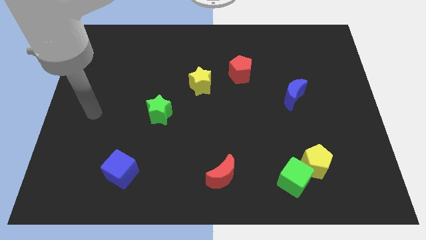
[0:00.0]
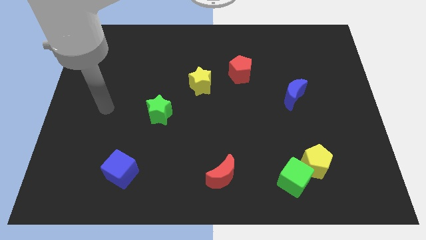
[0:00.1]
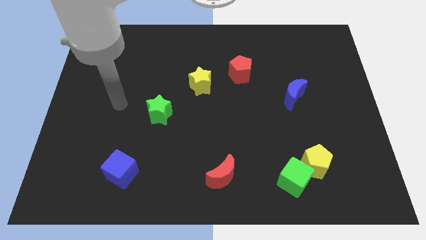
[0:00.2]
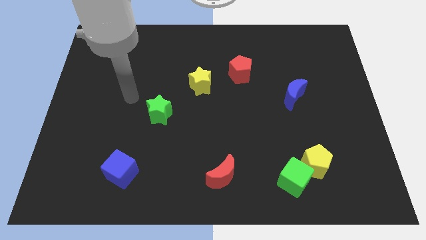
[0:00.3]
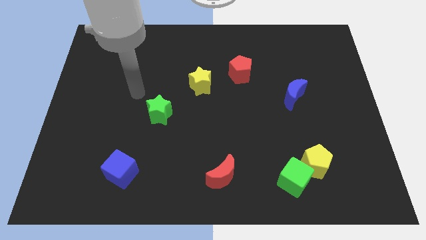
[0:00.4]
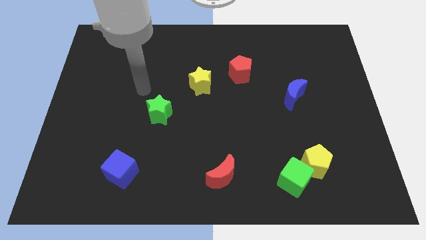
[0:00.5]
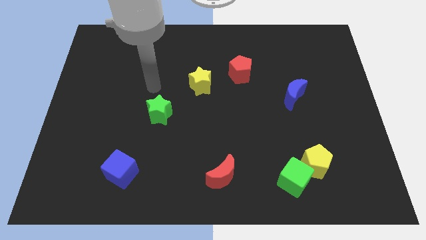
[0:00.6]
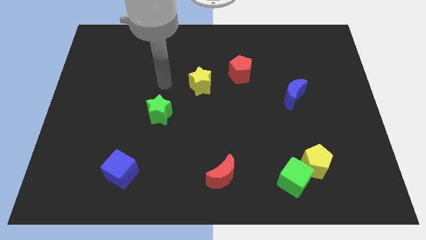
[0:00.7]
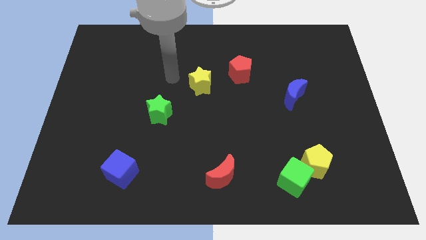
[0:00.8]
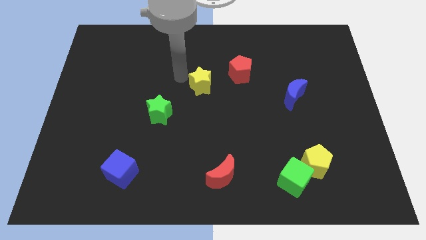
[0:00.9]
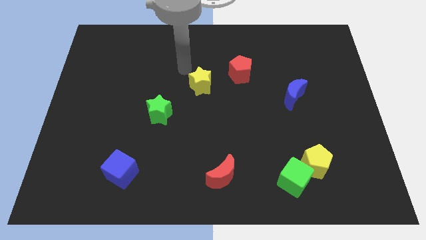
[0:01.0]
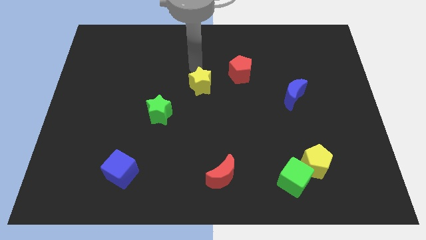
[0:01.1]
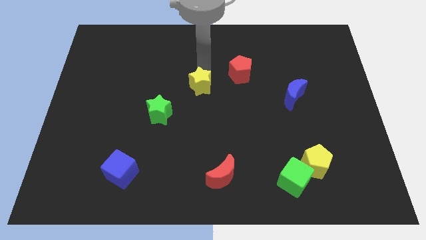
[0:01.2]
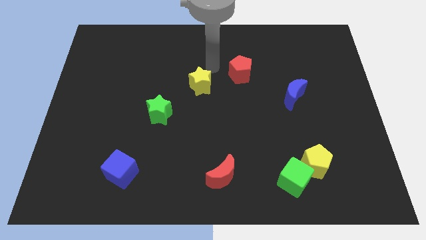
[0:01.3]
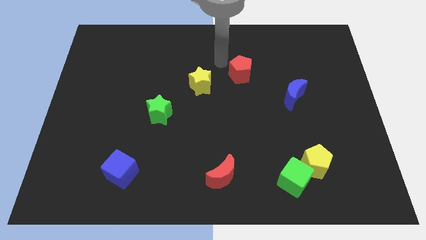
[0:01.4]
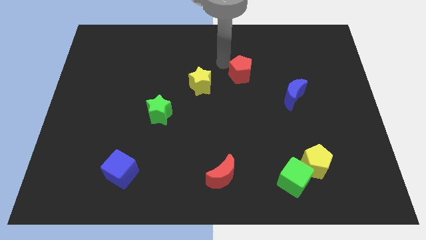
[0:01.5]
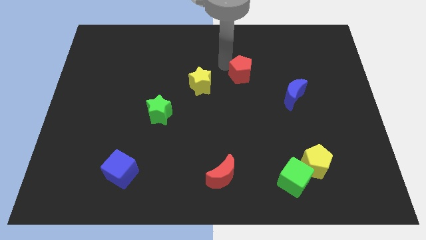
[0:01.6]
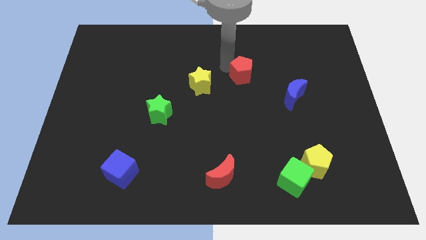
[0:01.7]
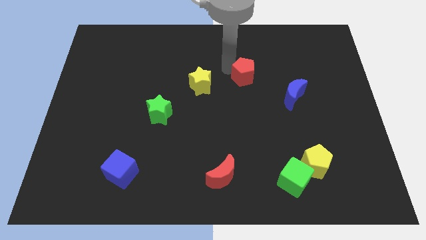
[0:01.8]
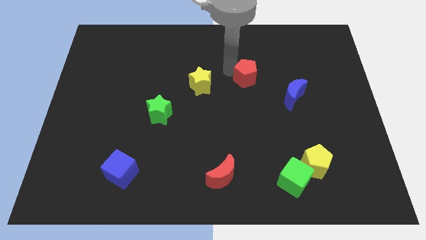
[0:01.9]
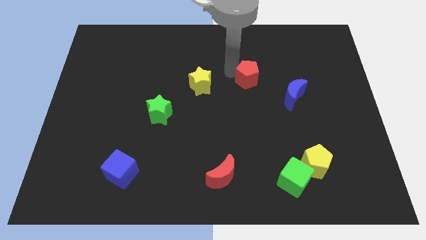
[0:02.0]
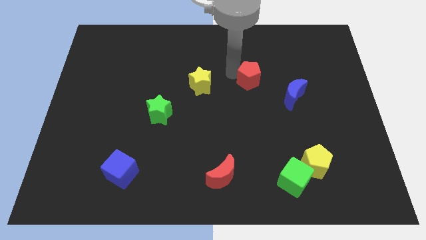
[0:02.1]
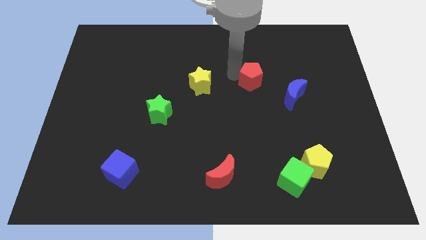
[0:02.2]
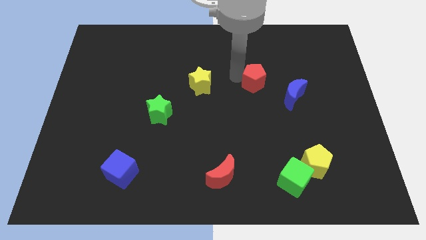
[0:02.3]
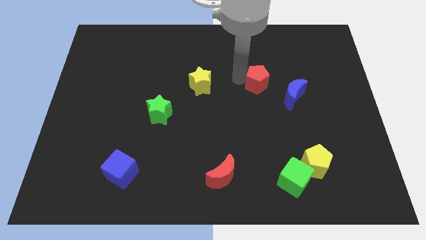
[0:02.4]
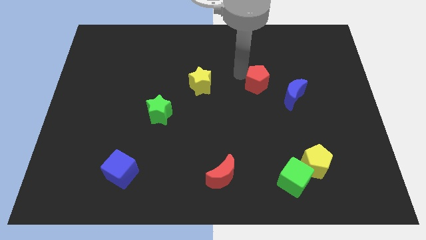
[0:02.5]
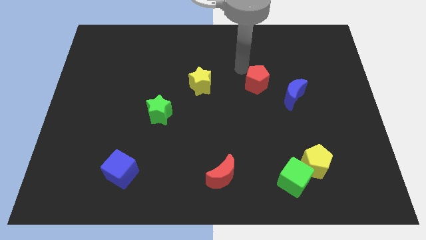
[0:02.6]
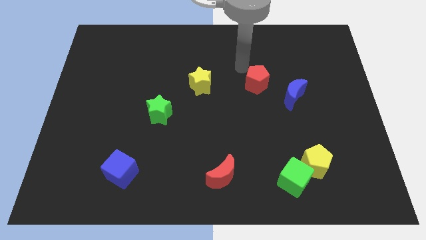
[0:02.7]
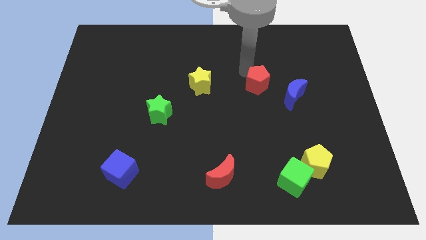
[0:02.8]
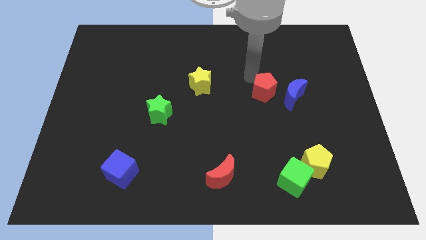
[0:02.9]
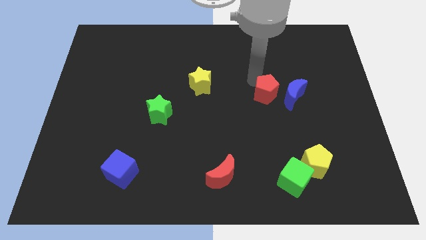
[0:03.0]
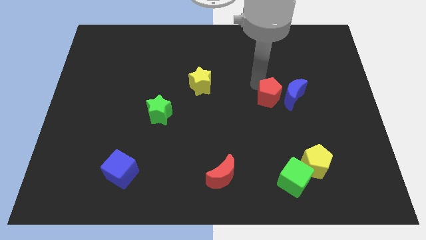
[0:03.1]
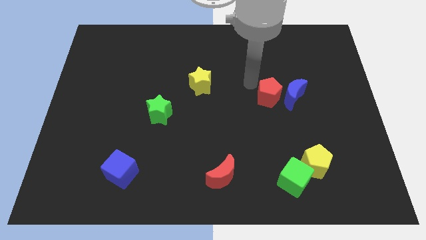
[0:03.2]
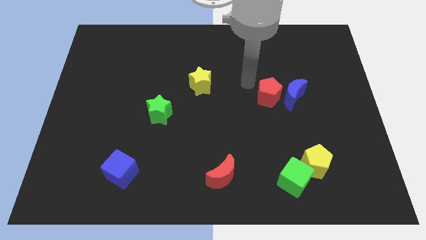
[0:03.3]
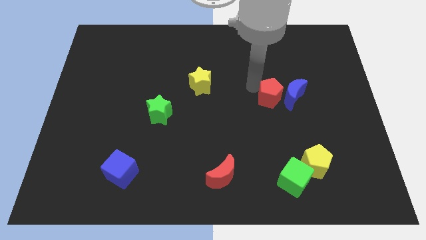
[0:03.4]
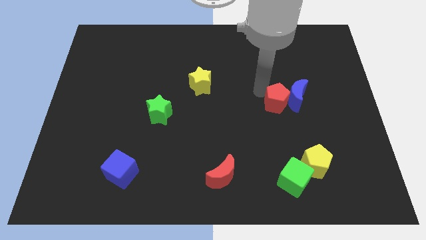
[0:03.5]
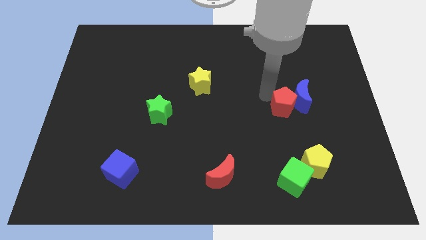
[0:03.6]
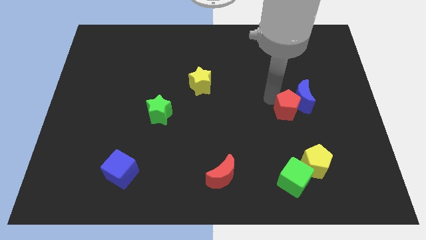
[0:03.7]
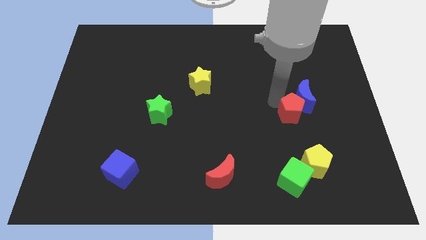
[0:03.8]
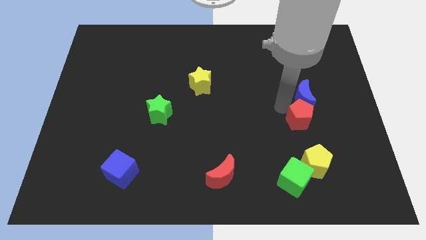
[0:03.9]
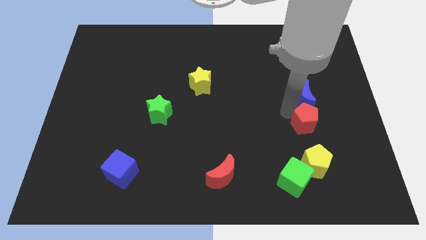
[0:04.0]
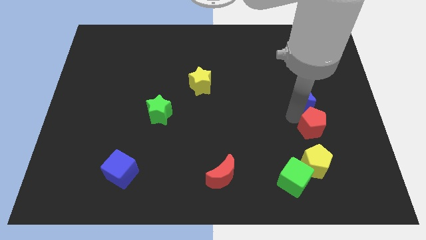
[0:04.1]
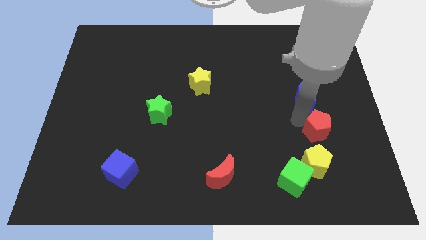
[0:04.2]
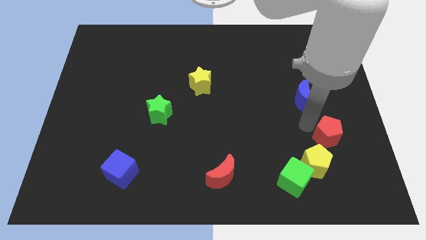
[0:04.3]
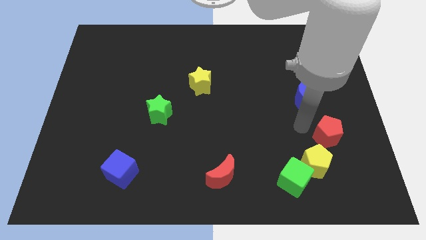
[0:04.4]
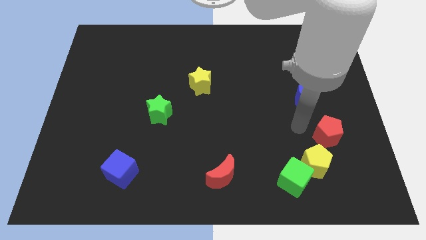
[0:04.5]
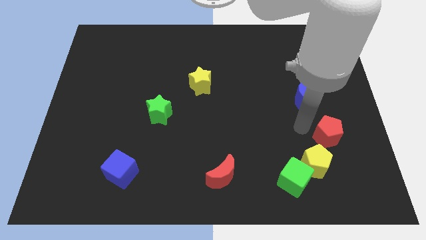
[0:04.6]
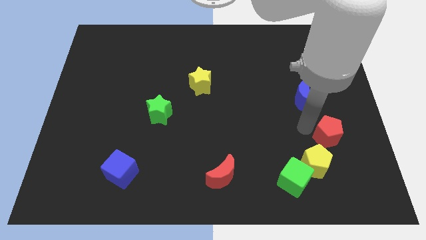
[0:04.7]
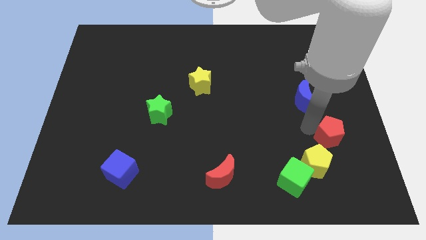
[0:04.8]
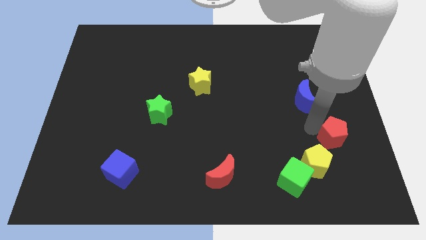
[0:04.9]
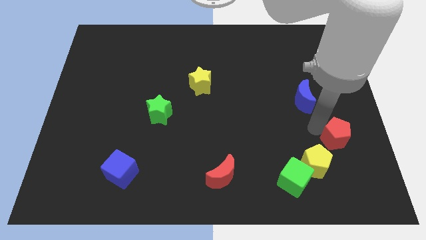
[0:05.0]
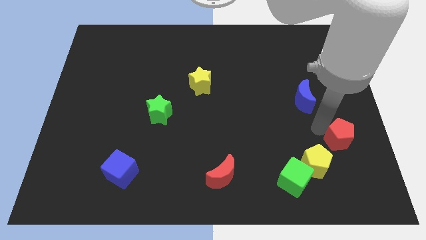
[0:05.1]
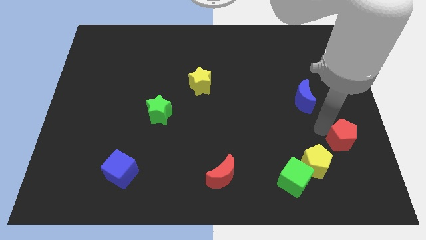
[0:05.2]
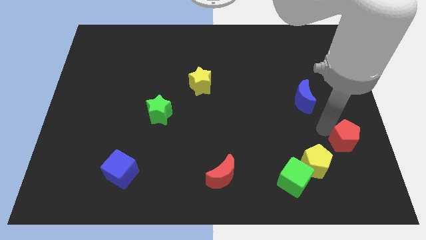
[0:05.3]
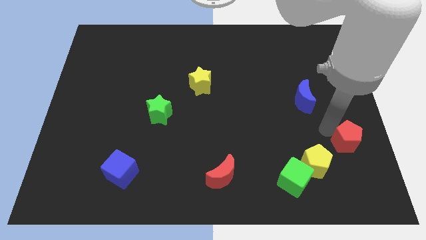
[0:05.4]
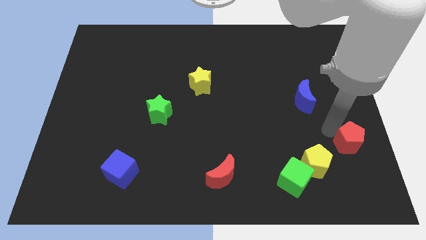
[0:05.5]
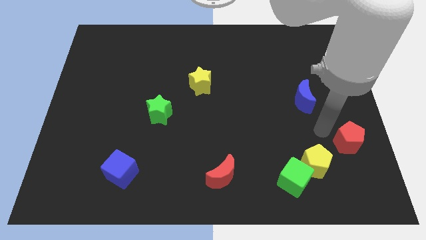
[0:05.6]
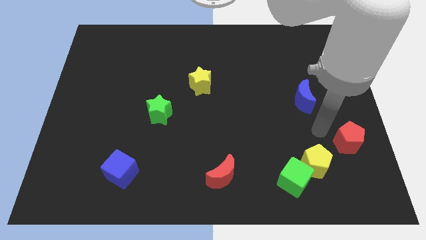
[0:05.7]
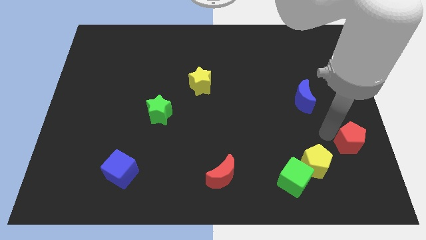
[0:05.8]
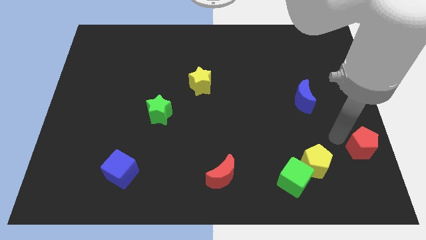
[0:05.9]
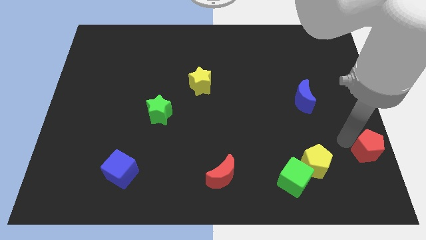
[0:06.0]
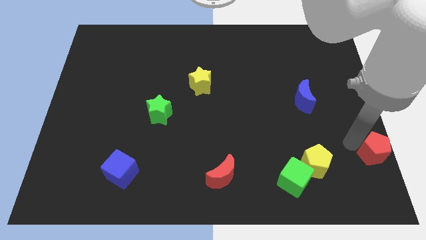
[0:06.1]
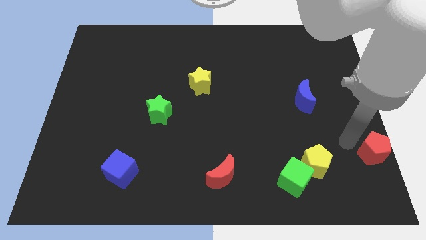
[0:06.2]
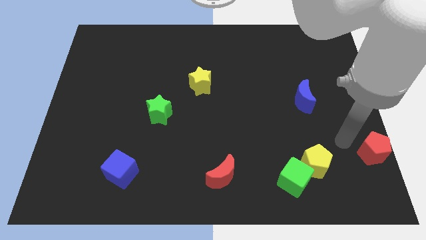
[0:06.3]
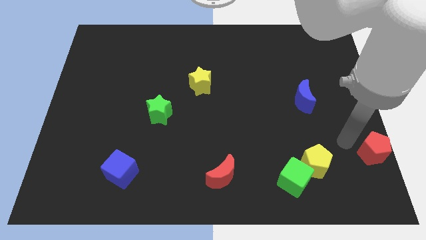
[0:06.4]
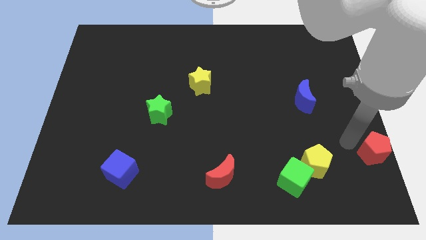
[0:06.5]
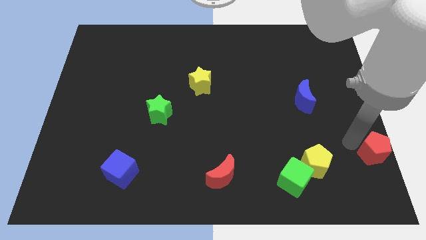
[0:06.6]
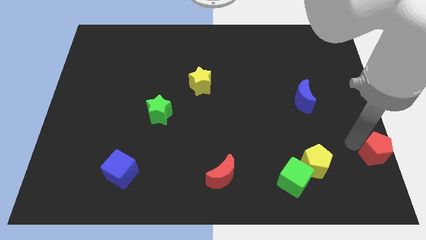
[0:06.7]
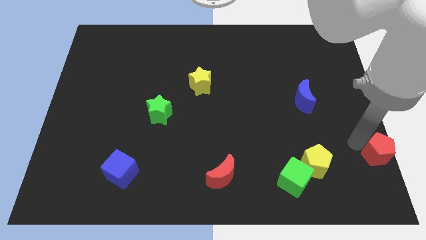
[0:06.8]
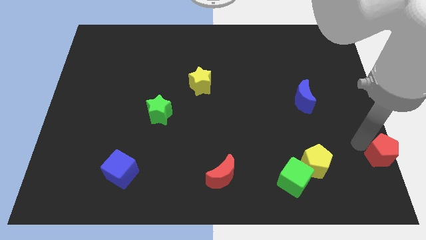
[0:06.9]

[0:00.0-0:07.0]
put the red pentagon to the bottom right

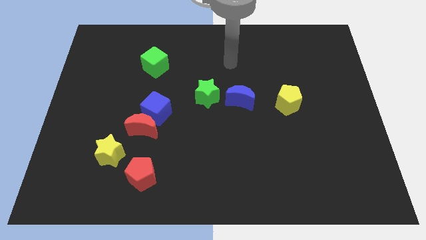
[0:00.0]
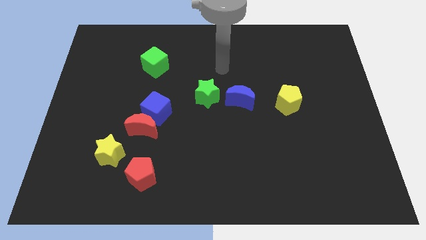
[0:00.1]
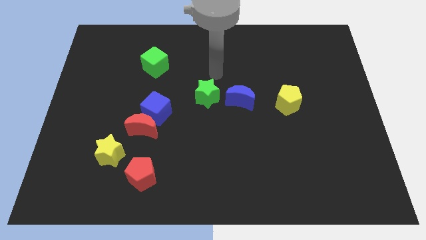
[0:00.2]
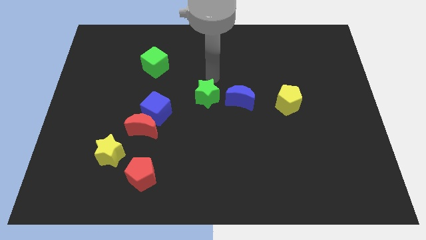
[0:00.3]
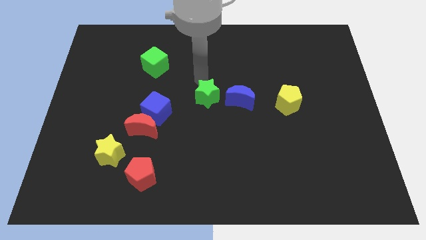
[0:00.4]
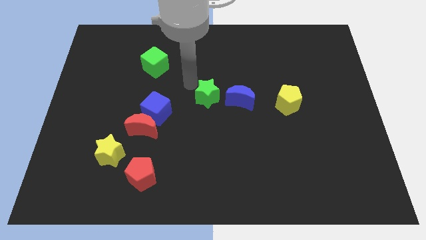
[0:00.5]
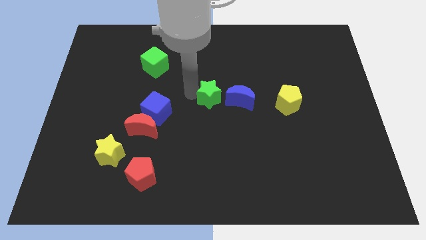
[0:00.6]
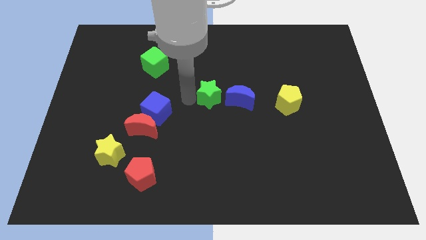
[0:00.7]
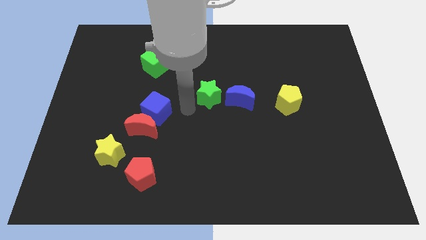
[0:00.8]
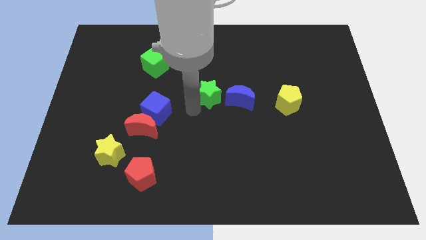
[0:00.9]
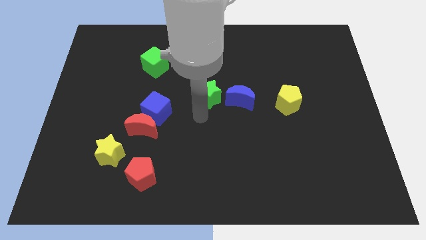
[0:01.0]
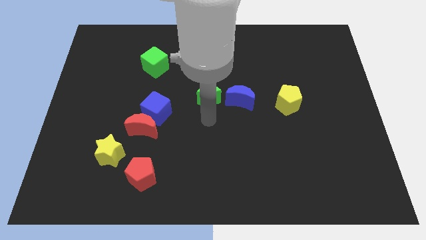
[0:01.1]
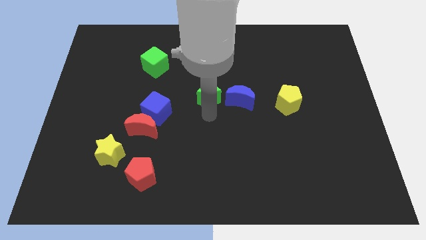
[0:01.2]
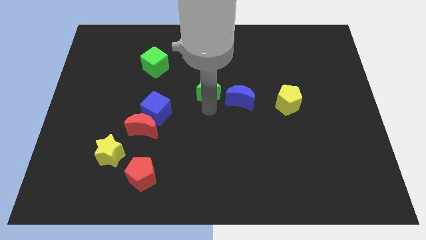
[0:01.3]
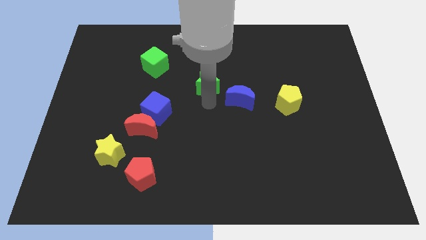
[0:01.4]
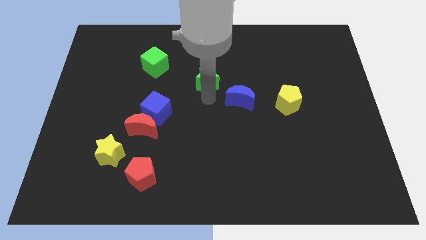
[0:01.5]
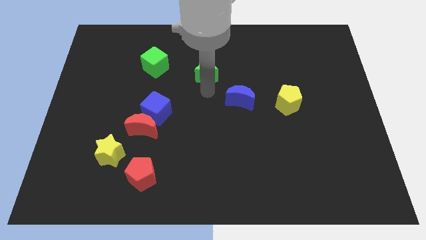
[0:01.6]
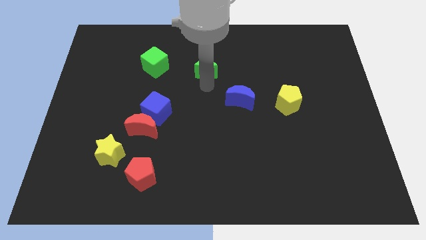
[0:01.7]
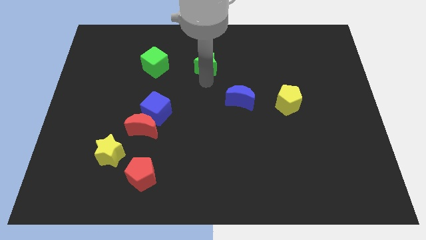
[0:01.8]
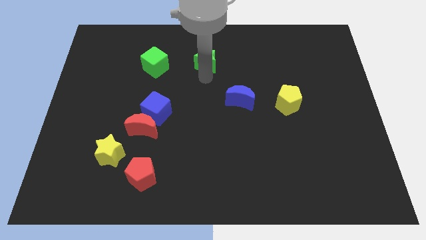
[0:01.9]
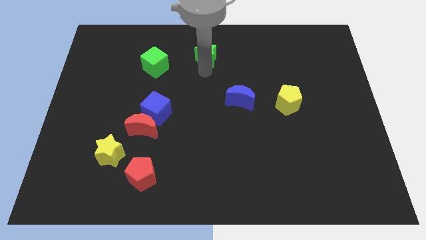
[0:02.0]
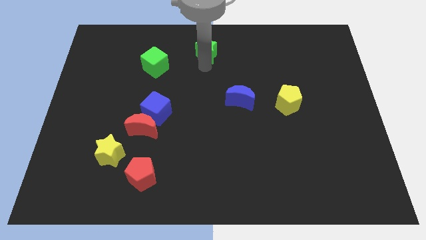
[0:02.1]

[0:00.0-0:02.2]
put the green star to the top side
